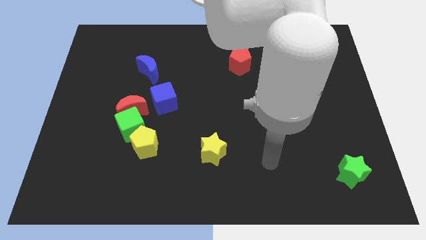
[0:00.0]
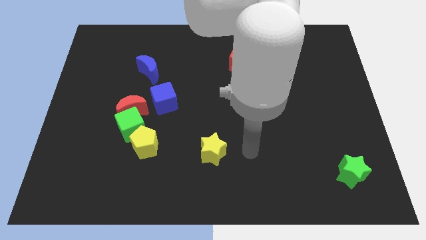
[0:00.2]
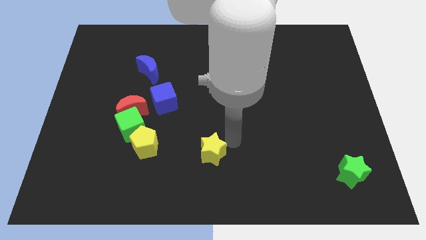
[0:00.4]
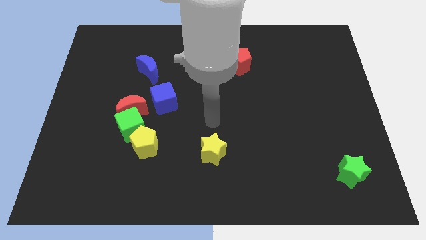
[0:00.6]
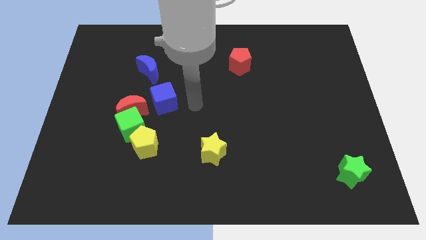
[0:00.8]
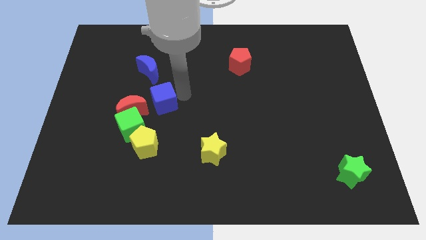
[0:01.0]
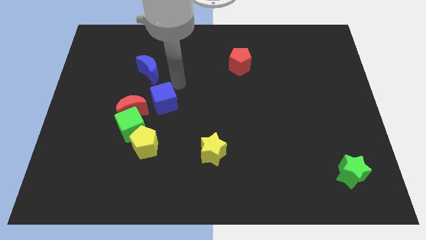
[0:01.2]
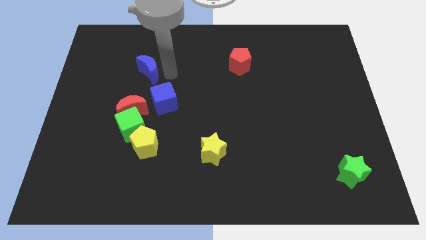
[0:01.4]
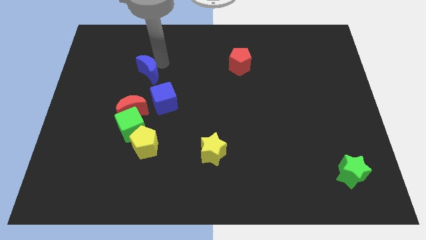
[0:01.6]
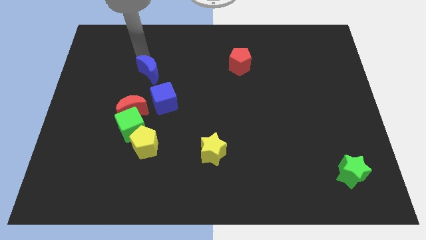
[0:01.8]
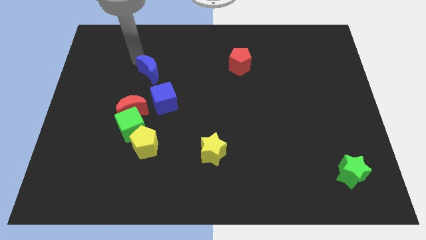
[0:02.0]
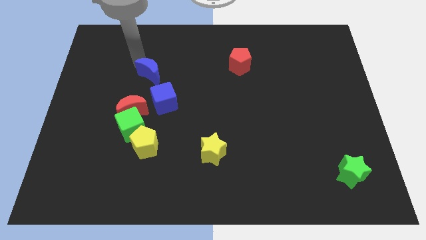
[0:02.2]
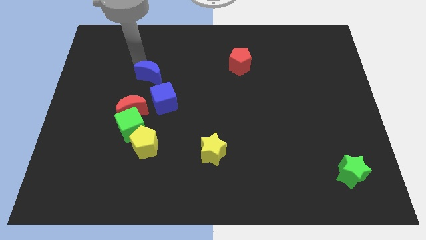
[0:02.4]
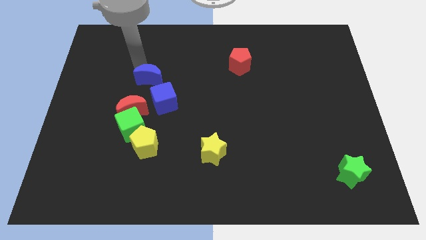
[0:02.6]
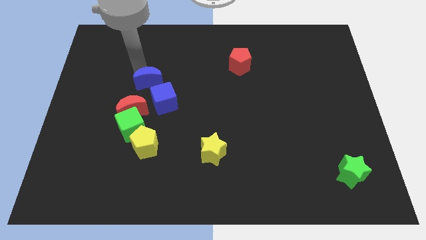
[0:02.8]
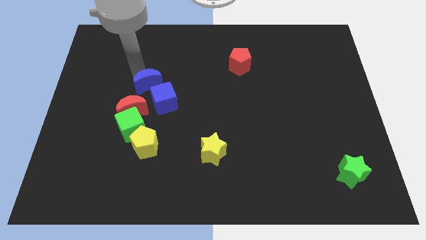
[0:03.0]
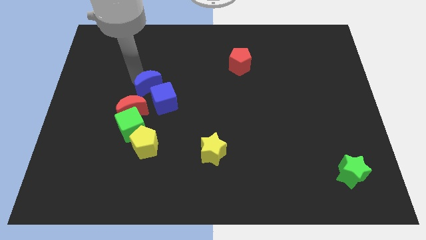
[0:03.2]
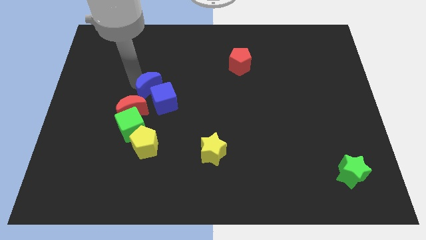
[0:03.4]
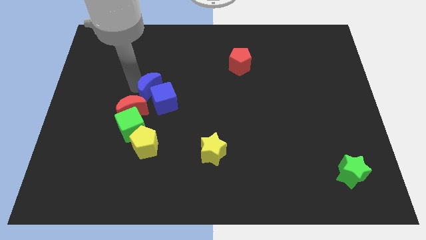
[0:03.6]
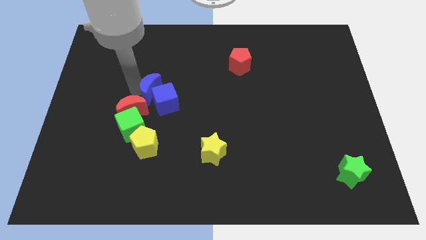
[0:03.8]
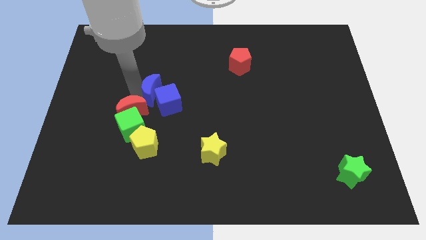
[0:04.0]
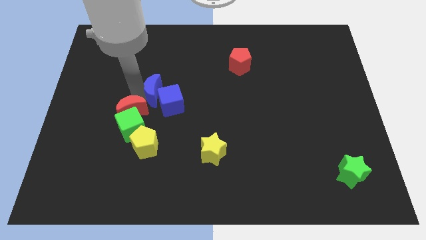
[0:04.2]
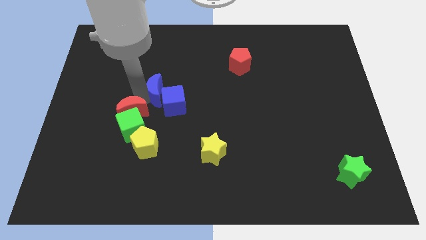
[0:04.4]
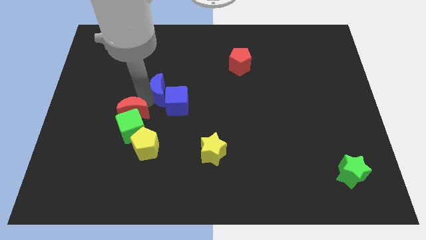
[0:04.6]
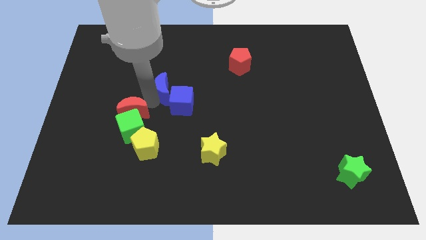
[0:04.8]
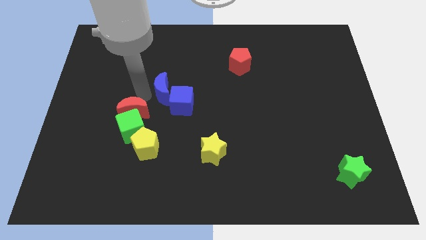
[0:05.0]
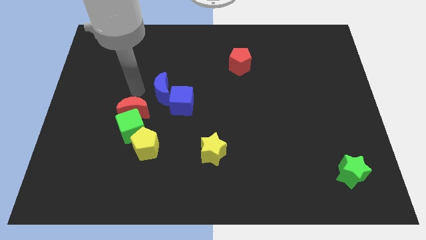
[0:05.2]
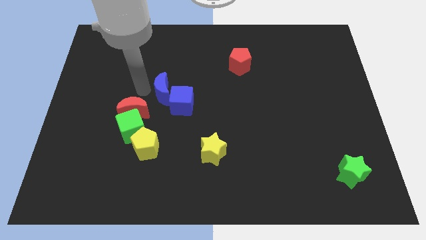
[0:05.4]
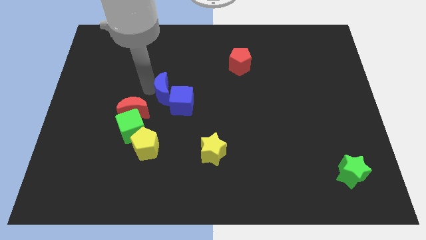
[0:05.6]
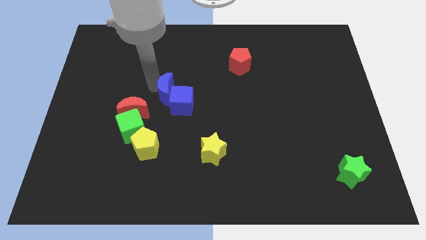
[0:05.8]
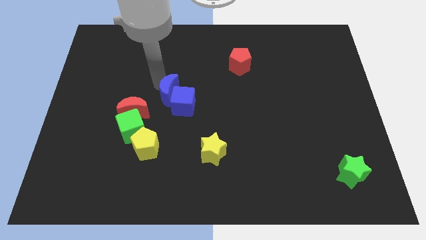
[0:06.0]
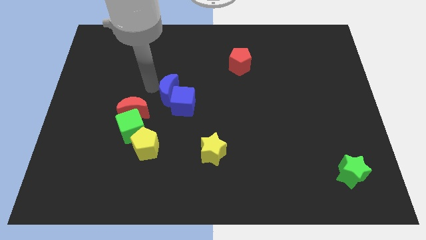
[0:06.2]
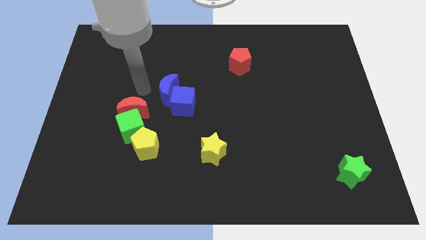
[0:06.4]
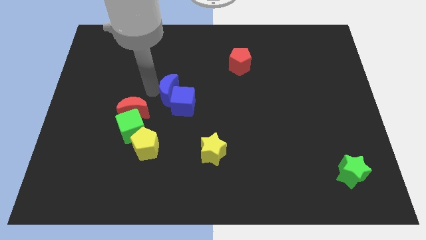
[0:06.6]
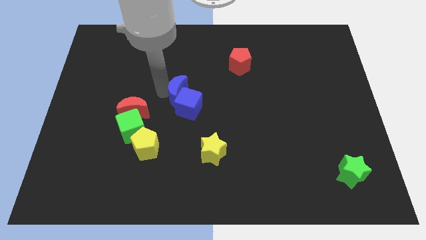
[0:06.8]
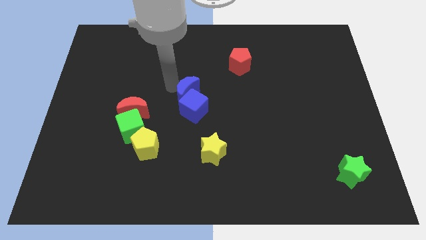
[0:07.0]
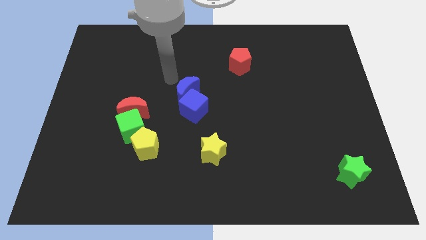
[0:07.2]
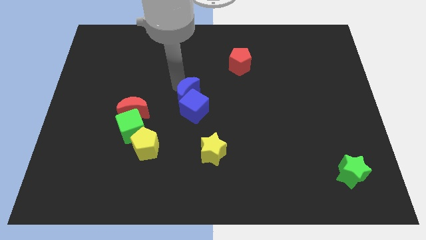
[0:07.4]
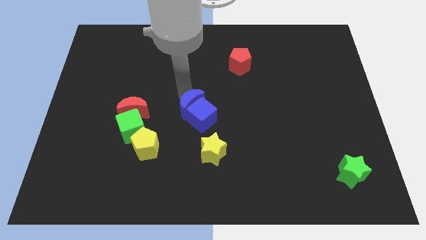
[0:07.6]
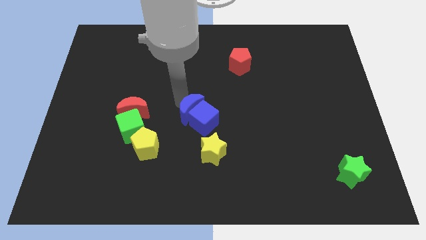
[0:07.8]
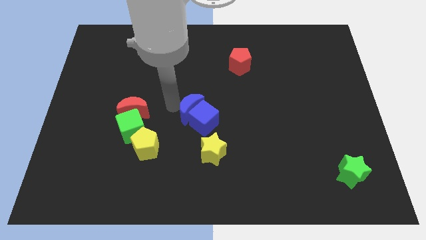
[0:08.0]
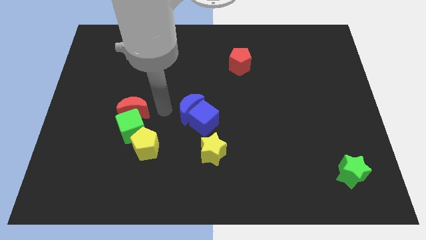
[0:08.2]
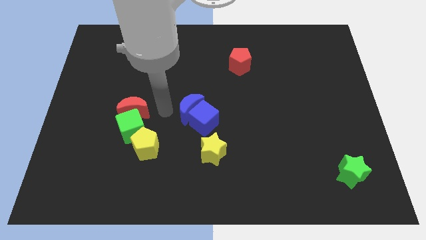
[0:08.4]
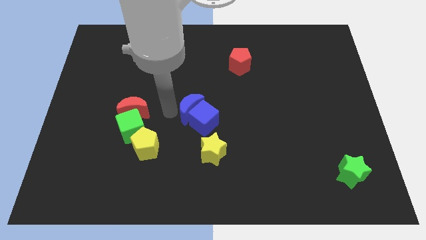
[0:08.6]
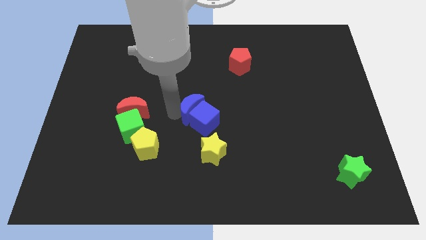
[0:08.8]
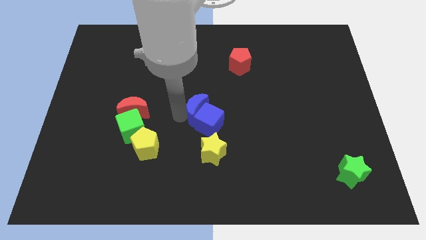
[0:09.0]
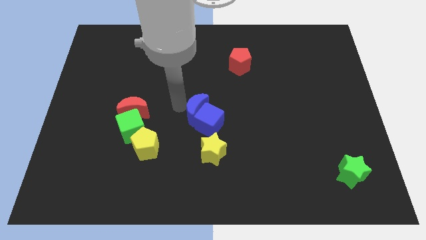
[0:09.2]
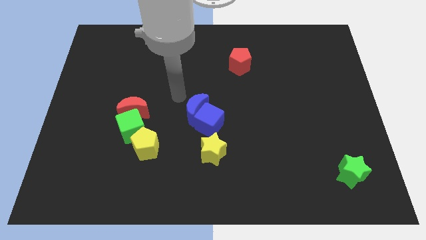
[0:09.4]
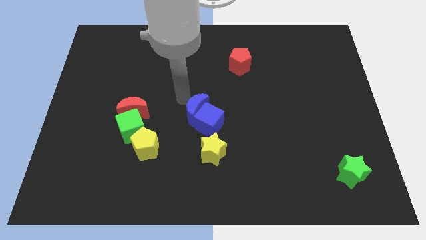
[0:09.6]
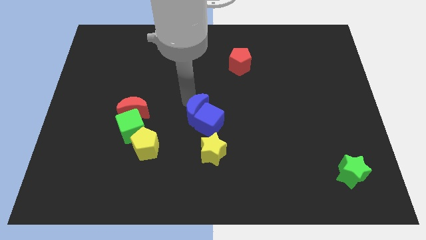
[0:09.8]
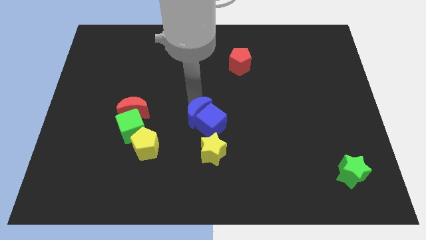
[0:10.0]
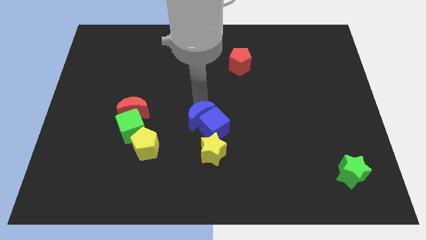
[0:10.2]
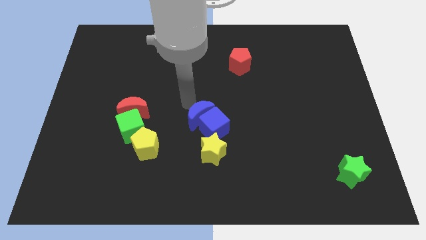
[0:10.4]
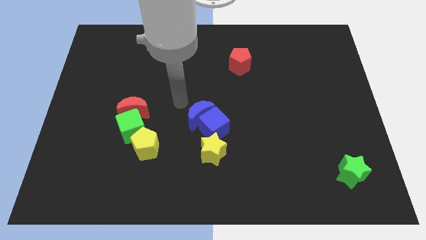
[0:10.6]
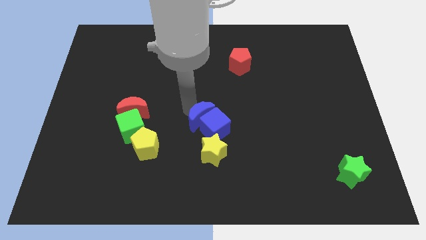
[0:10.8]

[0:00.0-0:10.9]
move the blue moon down and to the right diagonally

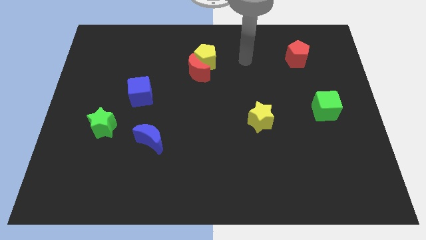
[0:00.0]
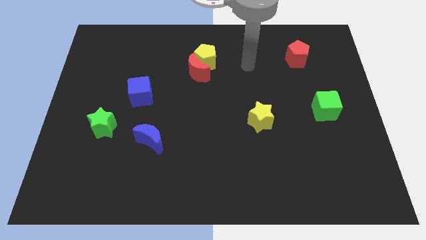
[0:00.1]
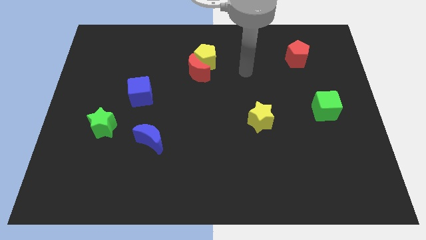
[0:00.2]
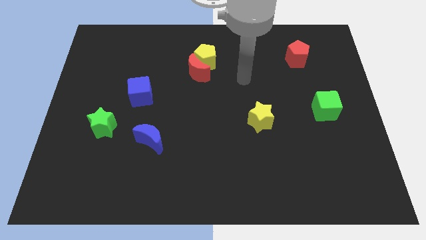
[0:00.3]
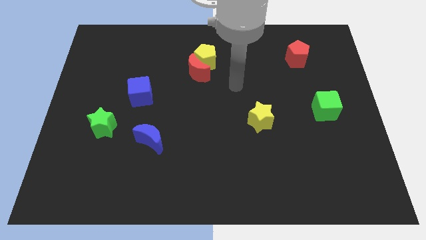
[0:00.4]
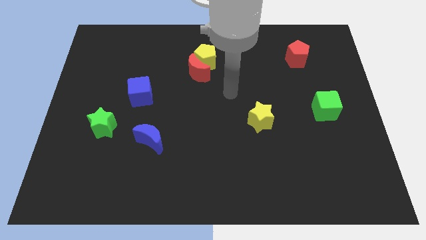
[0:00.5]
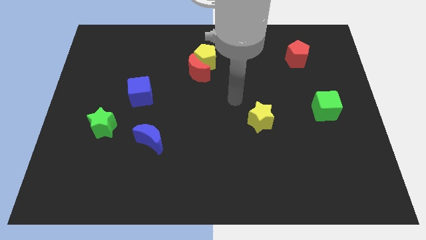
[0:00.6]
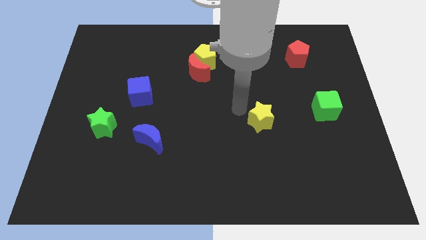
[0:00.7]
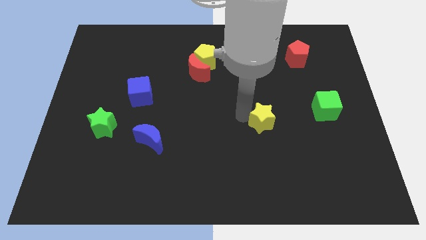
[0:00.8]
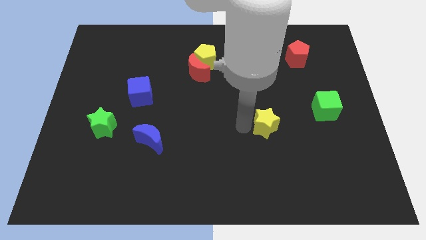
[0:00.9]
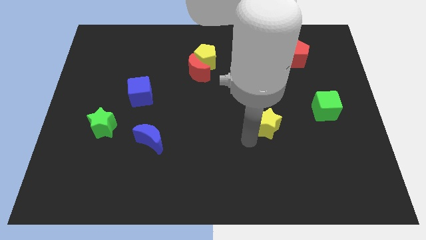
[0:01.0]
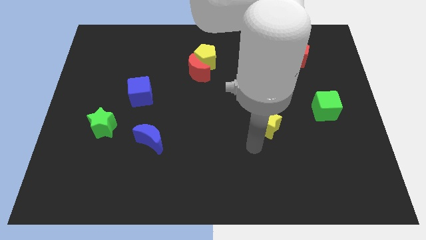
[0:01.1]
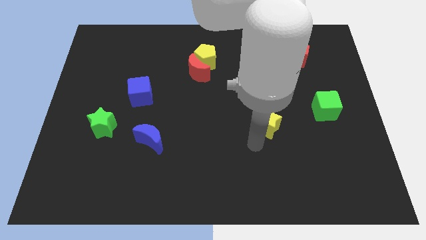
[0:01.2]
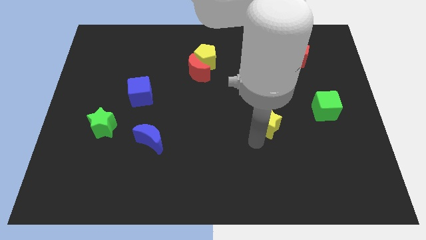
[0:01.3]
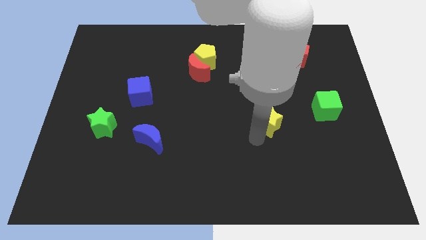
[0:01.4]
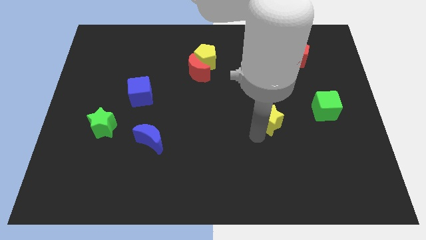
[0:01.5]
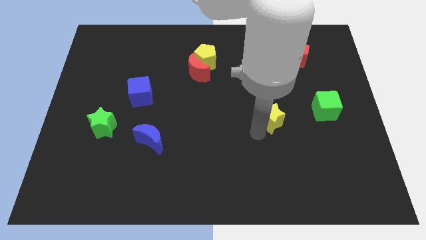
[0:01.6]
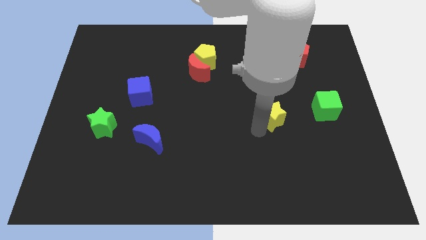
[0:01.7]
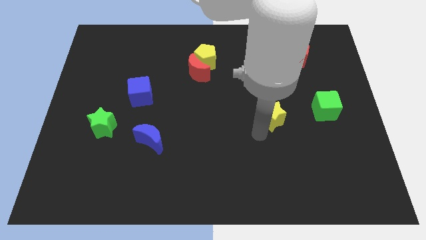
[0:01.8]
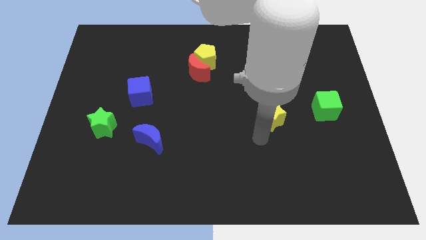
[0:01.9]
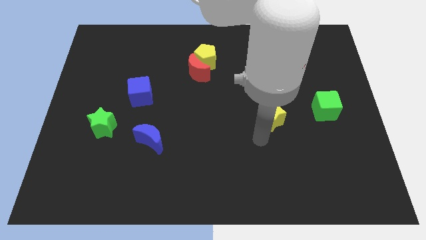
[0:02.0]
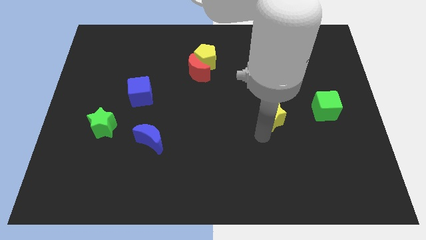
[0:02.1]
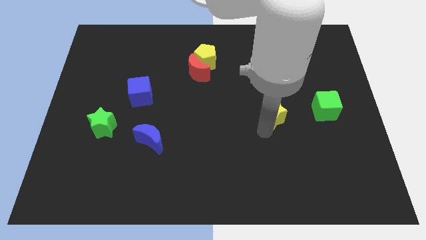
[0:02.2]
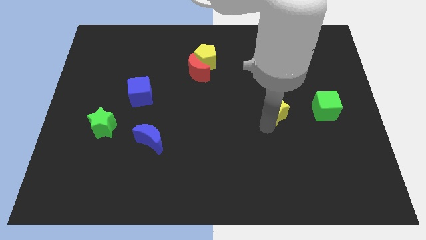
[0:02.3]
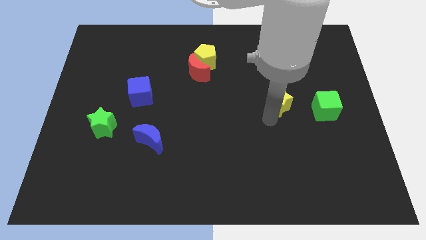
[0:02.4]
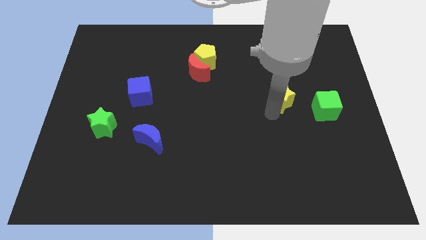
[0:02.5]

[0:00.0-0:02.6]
slightly move the yellow star up and right
